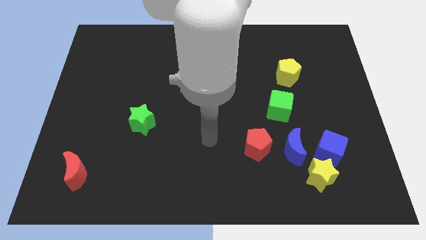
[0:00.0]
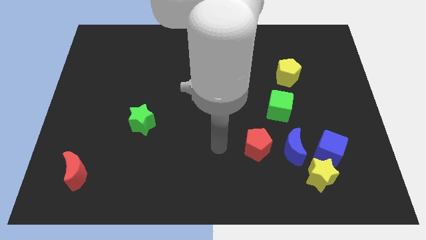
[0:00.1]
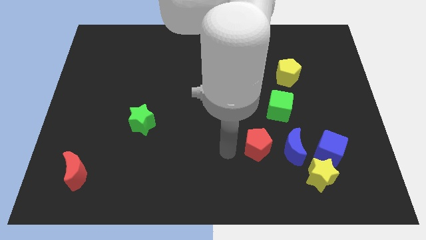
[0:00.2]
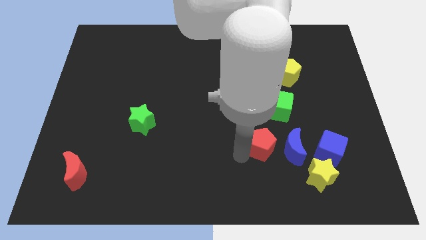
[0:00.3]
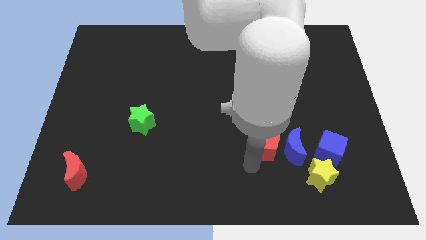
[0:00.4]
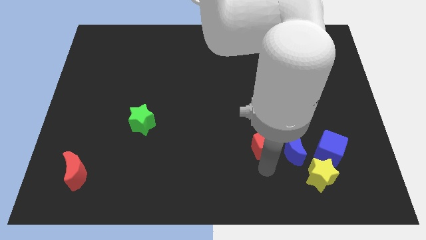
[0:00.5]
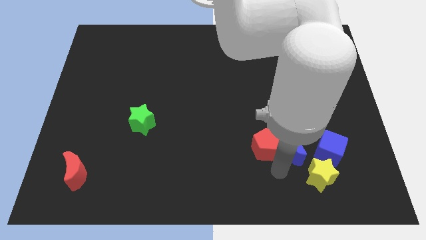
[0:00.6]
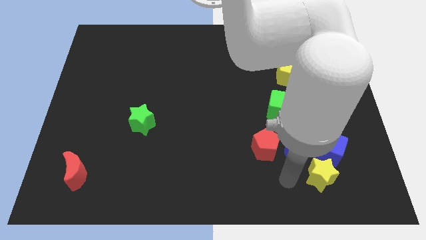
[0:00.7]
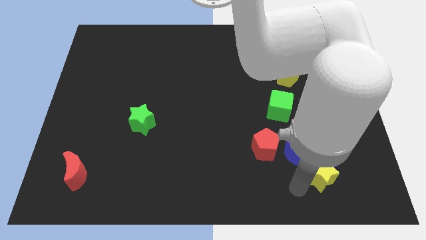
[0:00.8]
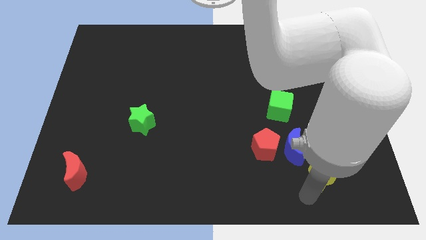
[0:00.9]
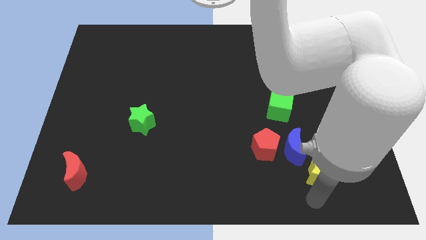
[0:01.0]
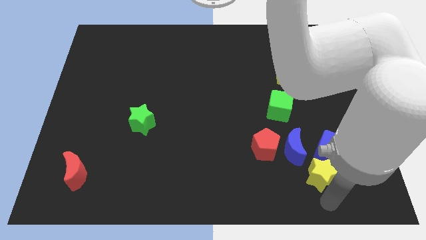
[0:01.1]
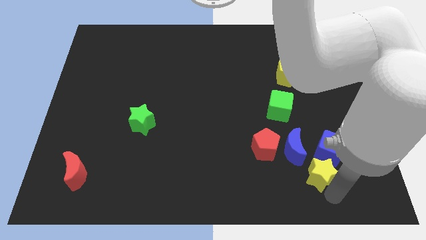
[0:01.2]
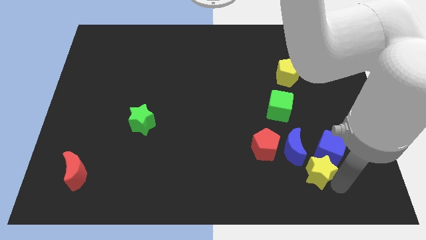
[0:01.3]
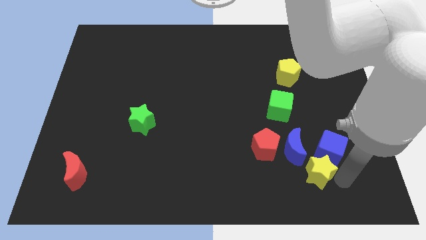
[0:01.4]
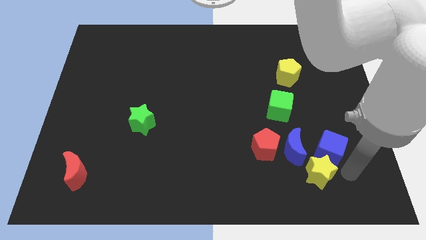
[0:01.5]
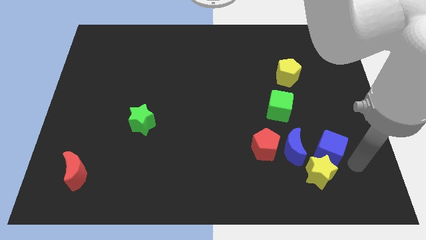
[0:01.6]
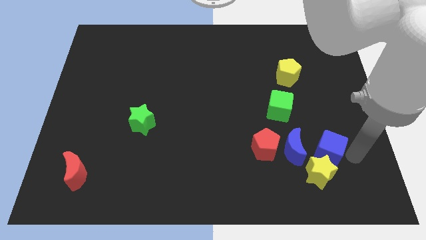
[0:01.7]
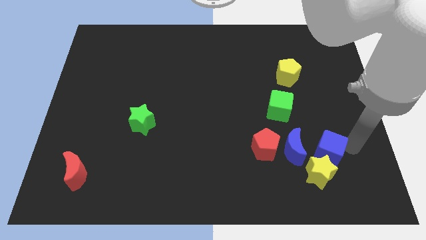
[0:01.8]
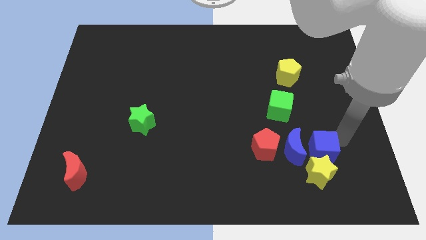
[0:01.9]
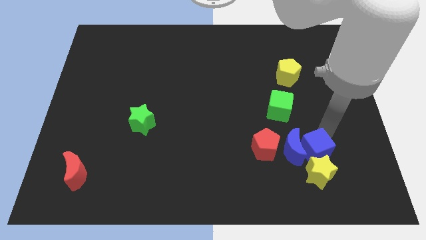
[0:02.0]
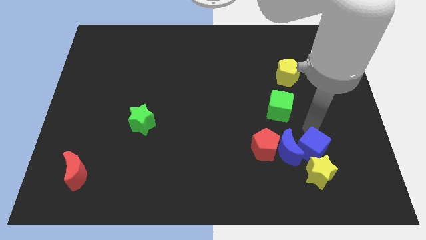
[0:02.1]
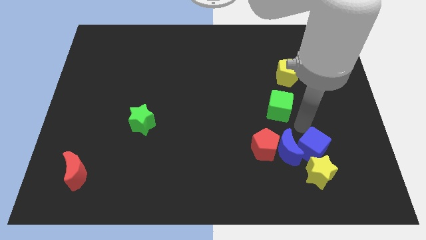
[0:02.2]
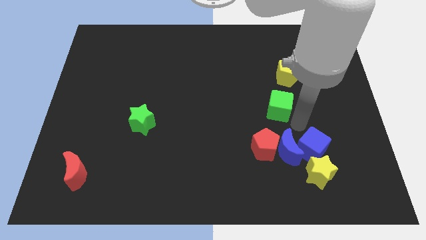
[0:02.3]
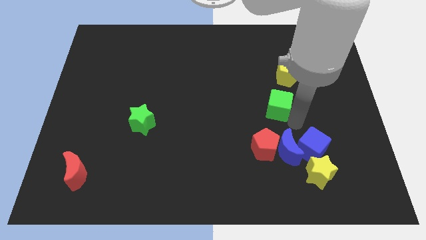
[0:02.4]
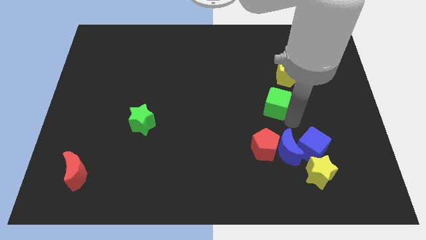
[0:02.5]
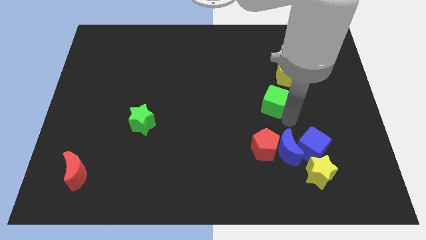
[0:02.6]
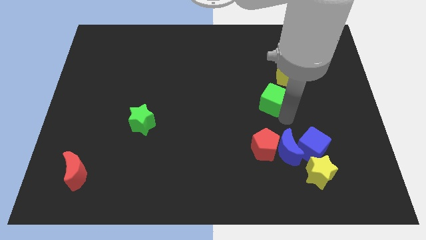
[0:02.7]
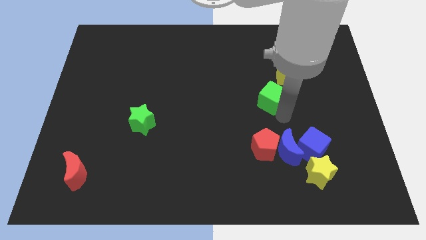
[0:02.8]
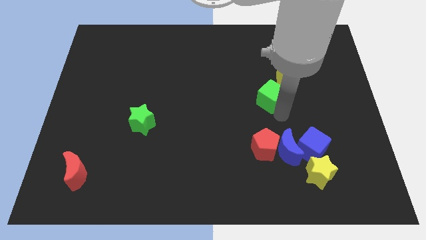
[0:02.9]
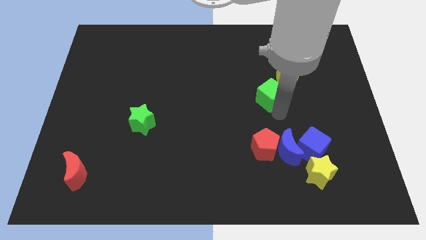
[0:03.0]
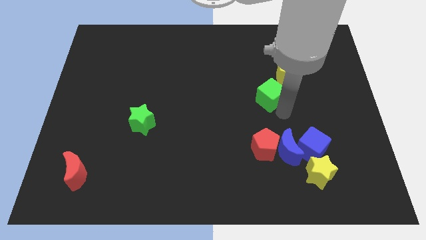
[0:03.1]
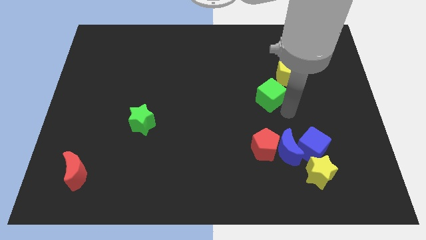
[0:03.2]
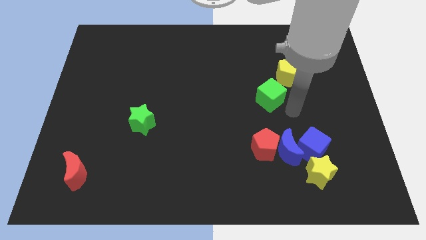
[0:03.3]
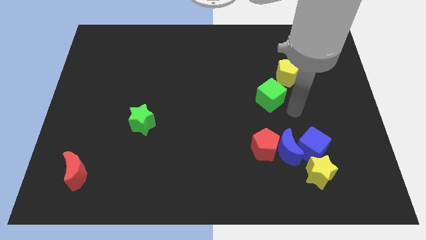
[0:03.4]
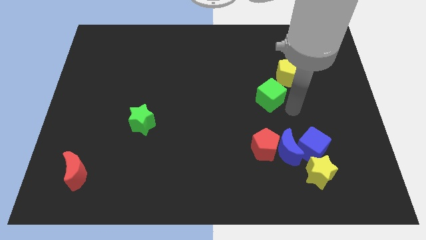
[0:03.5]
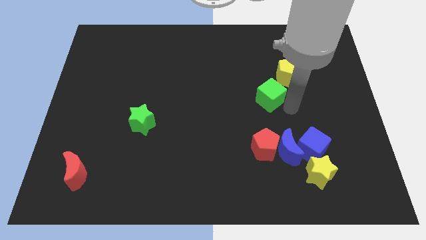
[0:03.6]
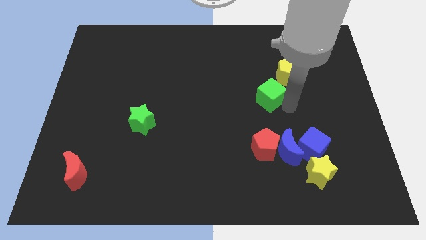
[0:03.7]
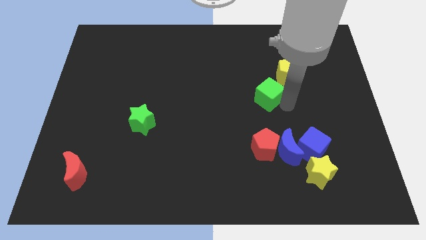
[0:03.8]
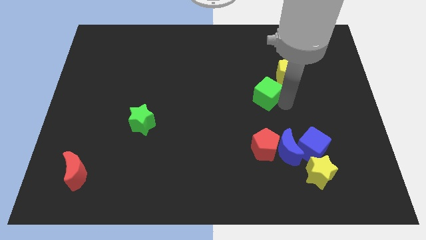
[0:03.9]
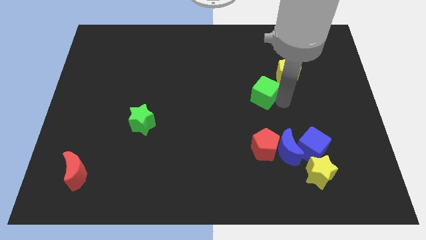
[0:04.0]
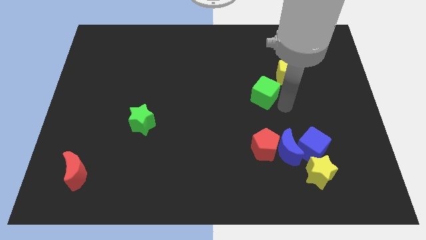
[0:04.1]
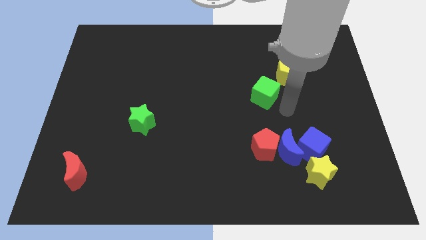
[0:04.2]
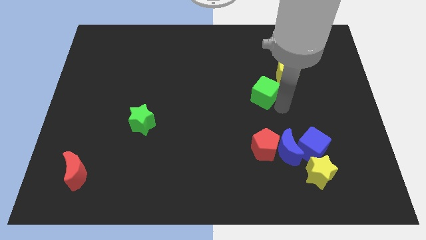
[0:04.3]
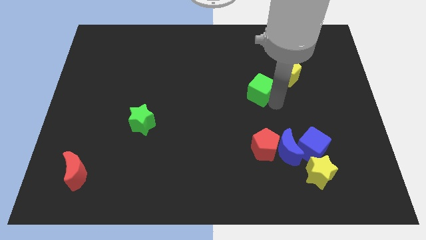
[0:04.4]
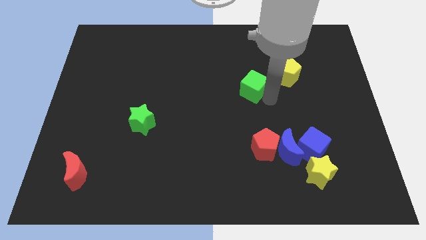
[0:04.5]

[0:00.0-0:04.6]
push the green cube somewhat diagonally upwards and left

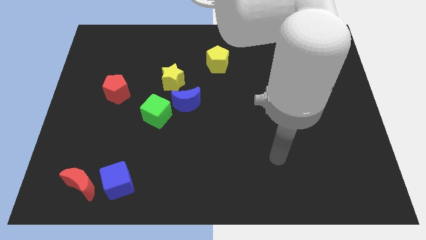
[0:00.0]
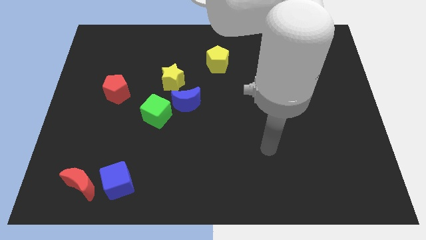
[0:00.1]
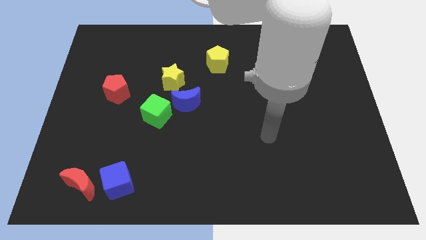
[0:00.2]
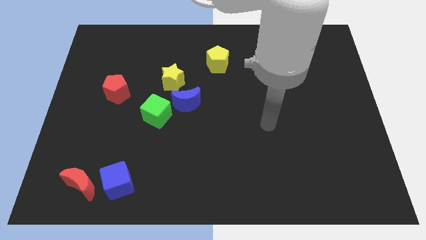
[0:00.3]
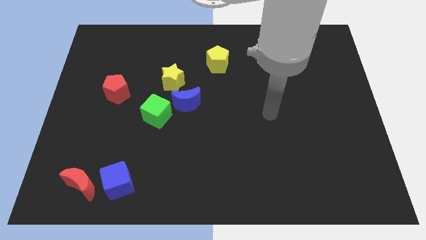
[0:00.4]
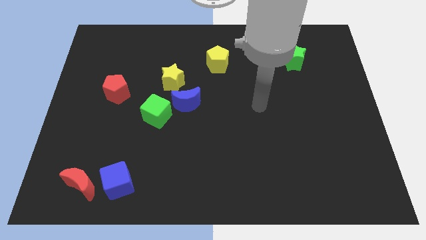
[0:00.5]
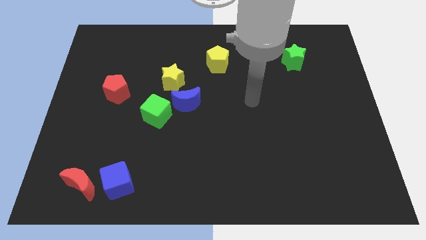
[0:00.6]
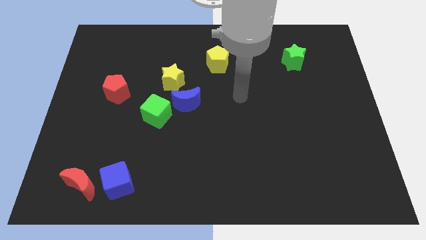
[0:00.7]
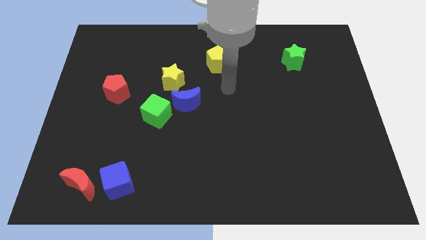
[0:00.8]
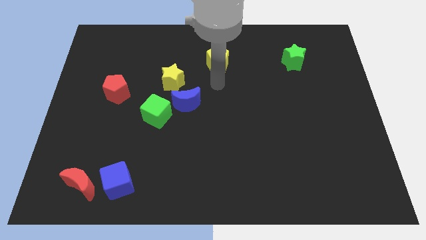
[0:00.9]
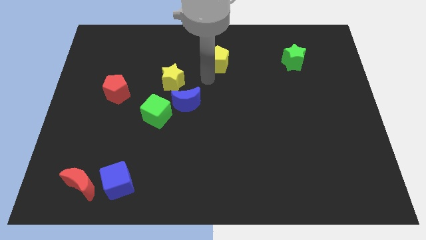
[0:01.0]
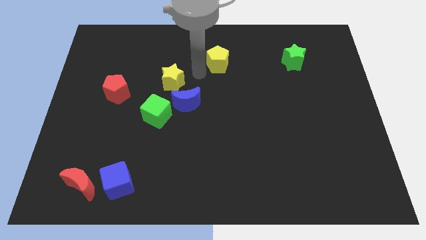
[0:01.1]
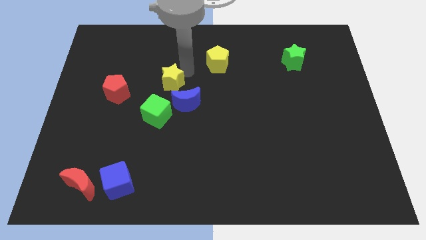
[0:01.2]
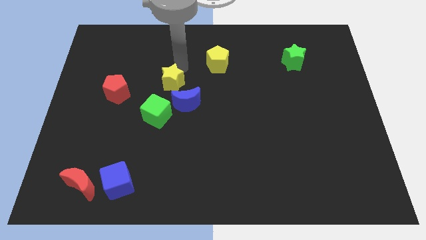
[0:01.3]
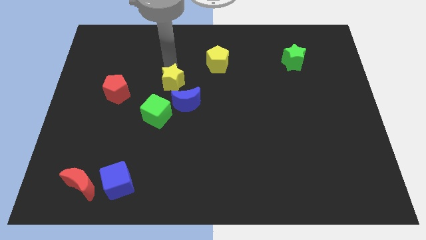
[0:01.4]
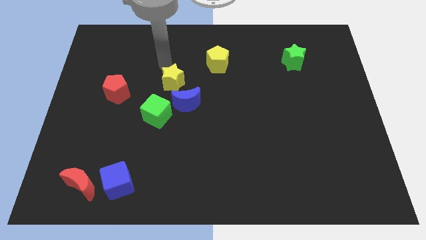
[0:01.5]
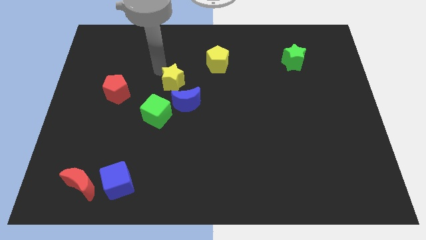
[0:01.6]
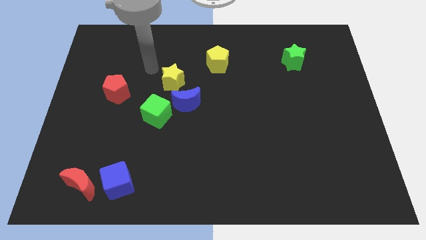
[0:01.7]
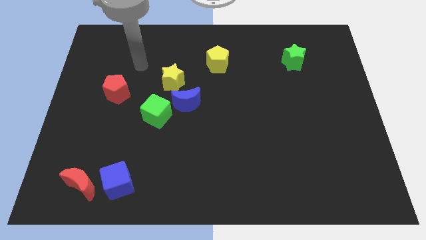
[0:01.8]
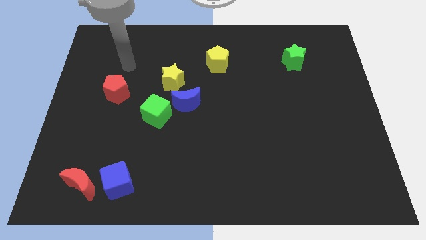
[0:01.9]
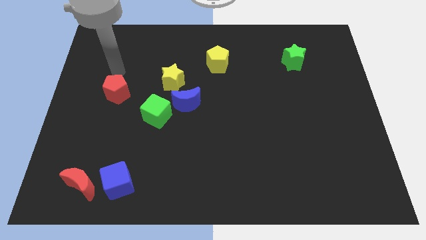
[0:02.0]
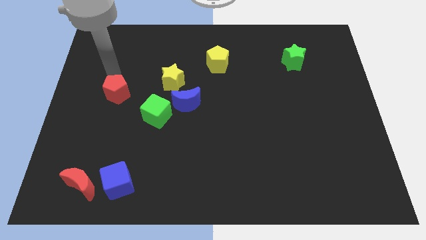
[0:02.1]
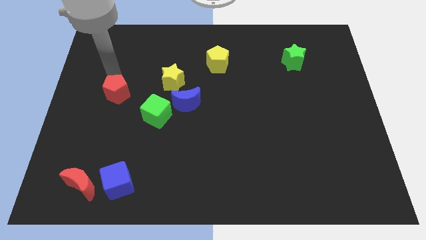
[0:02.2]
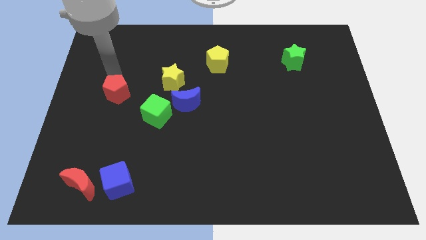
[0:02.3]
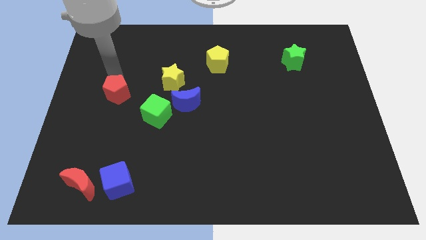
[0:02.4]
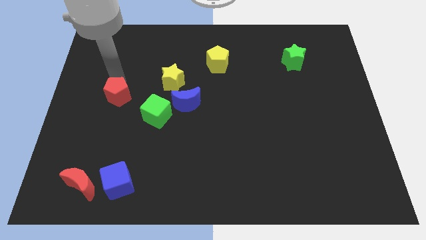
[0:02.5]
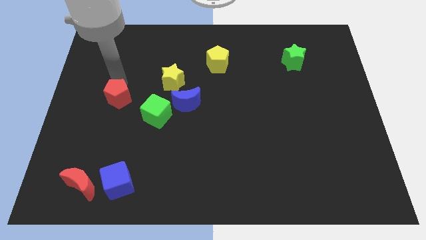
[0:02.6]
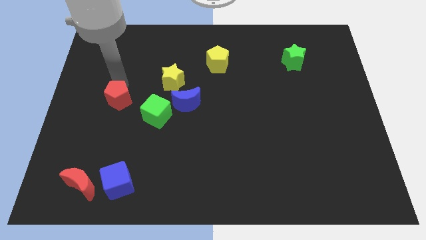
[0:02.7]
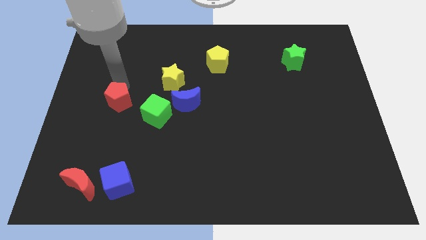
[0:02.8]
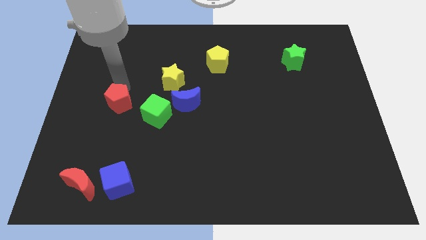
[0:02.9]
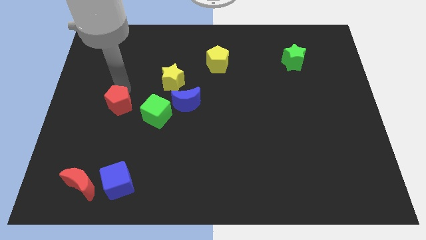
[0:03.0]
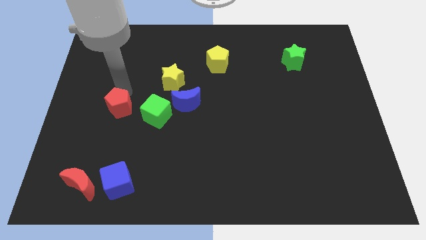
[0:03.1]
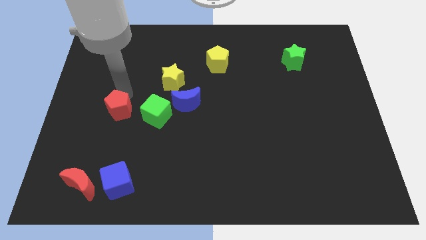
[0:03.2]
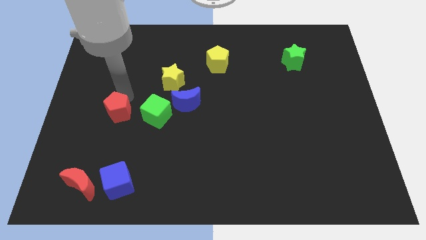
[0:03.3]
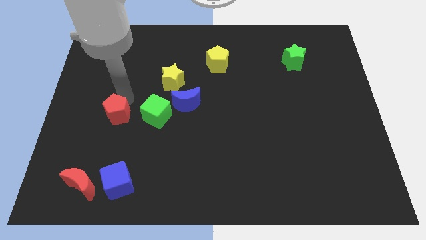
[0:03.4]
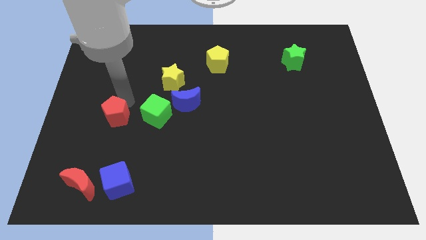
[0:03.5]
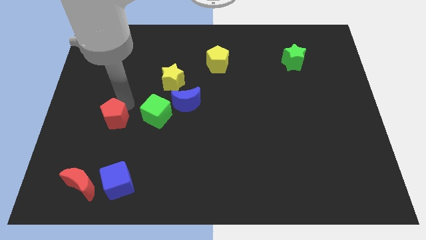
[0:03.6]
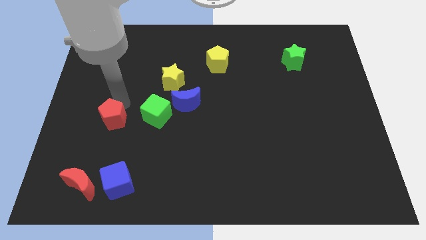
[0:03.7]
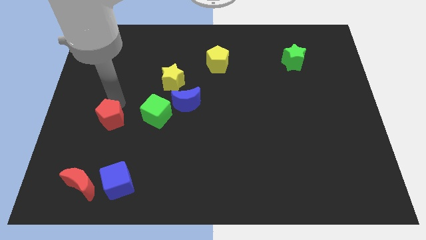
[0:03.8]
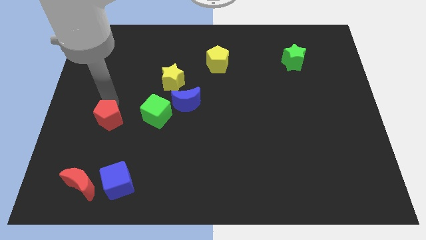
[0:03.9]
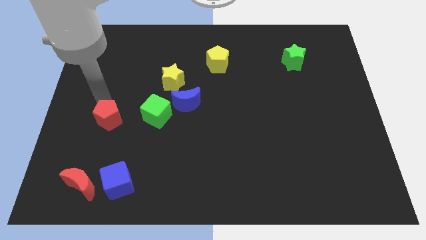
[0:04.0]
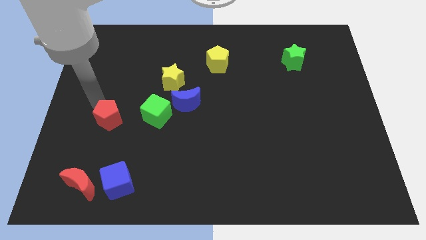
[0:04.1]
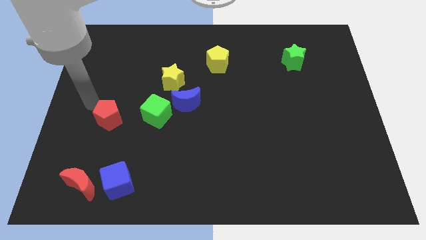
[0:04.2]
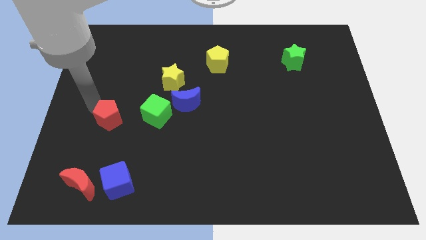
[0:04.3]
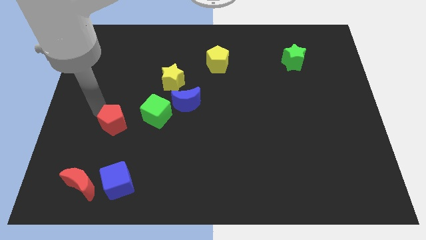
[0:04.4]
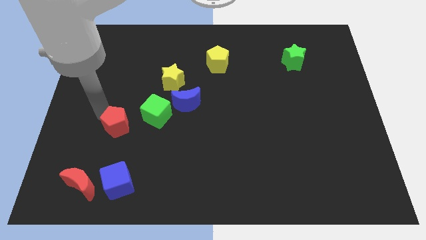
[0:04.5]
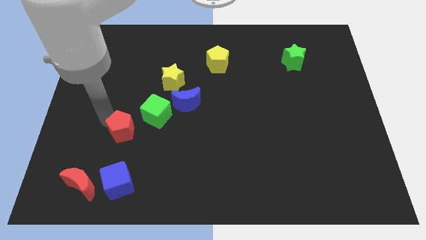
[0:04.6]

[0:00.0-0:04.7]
push the red pentagon a little downwards and right
